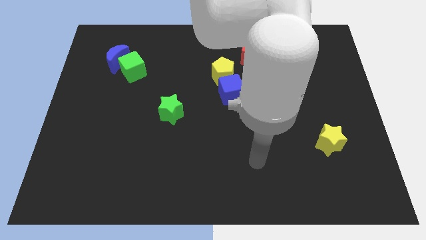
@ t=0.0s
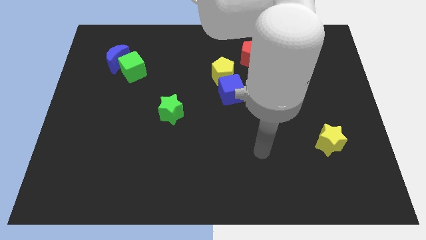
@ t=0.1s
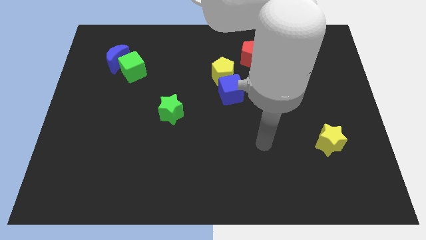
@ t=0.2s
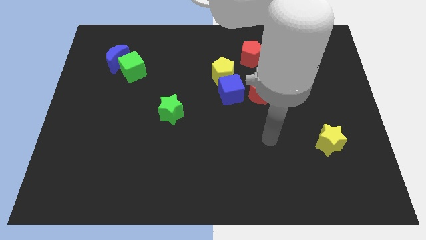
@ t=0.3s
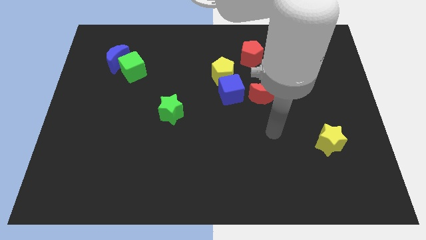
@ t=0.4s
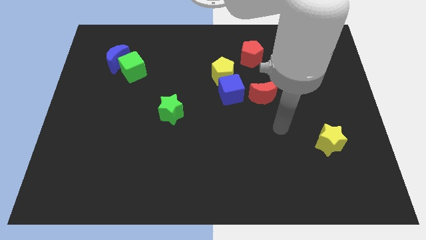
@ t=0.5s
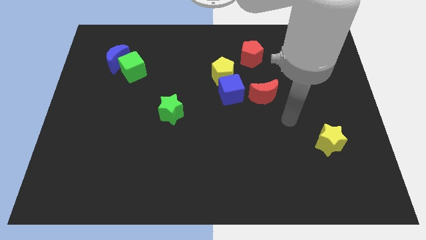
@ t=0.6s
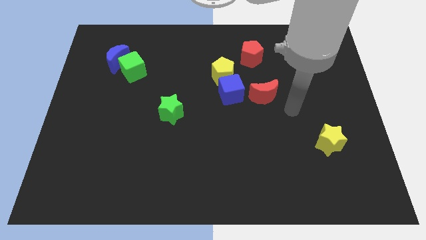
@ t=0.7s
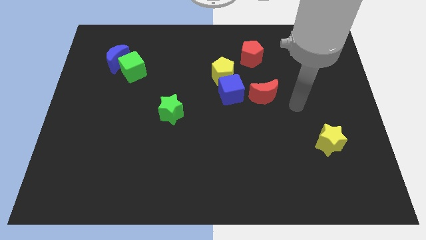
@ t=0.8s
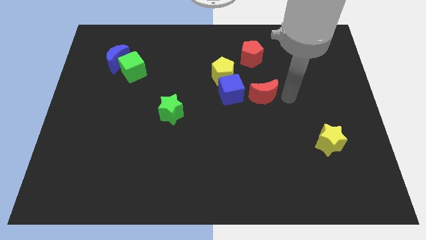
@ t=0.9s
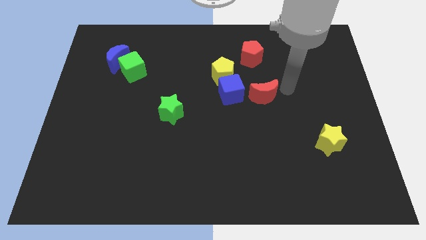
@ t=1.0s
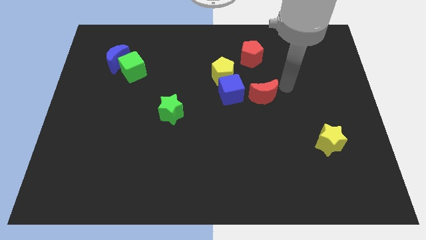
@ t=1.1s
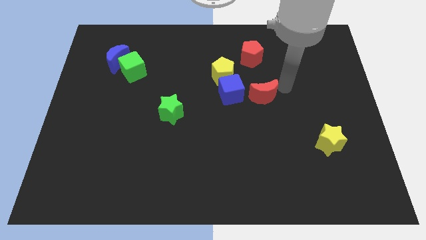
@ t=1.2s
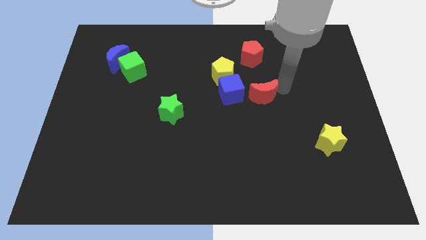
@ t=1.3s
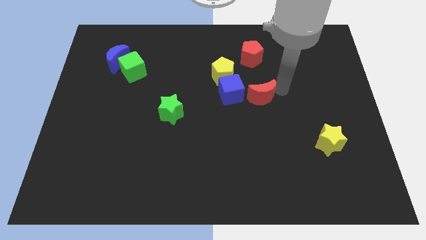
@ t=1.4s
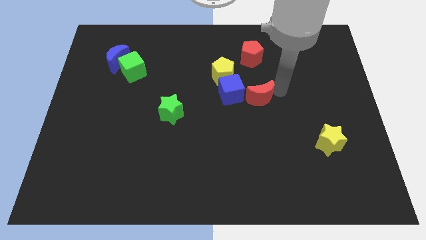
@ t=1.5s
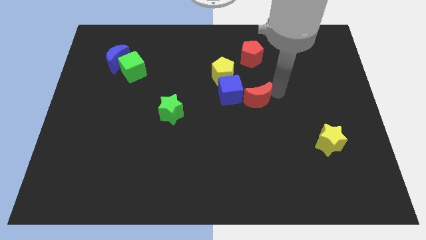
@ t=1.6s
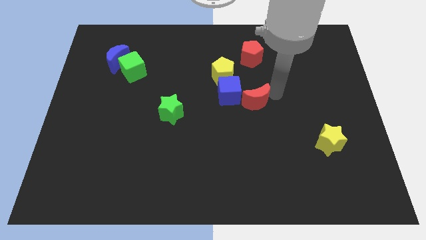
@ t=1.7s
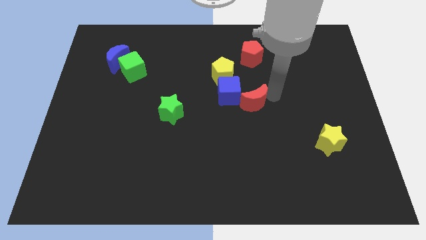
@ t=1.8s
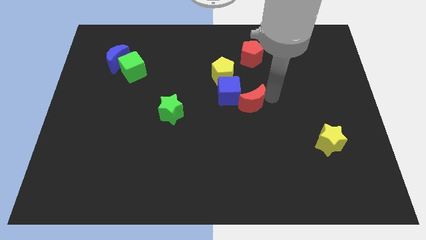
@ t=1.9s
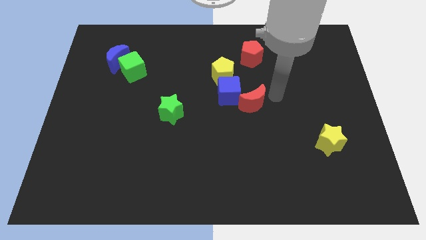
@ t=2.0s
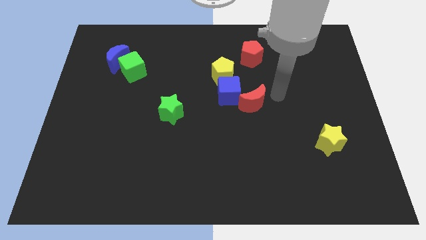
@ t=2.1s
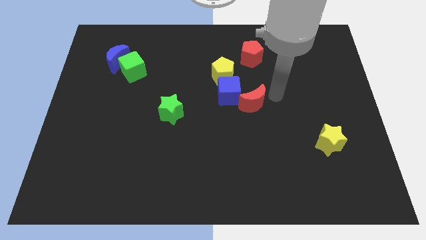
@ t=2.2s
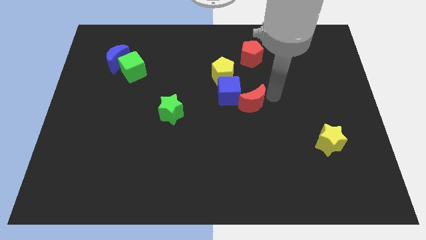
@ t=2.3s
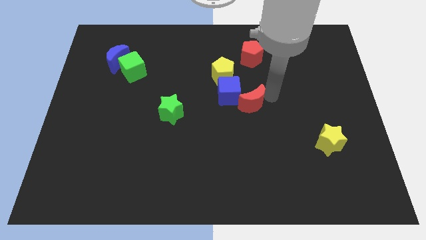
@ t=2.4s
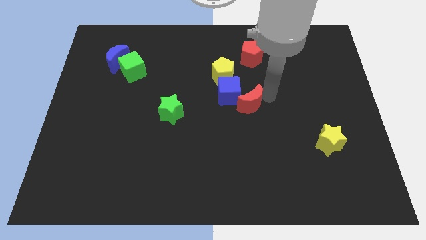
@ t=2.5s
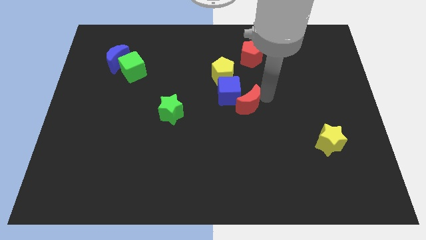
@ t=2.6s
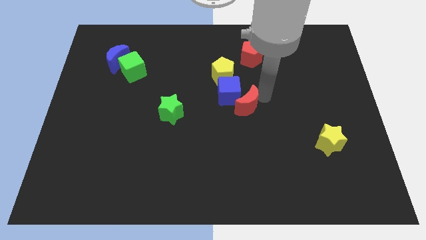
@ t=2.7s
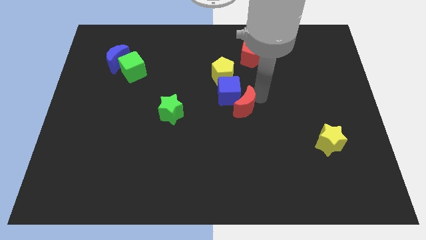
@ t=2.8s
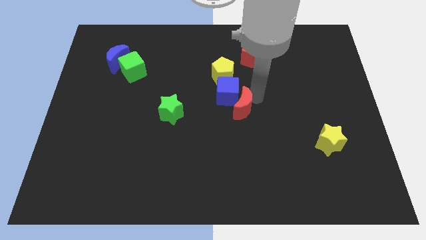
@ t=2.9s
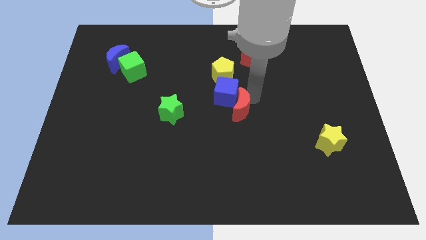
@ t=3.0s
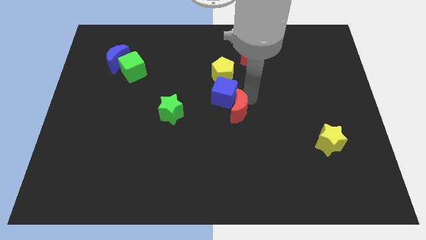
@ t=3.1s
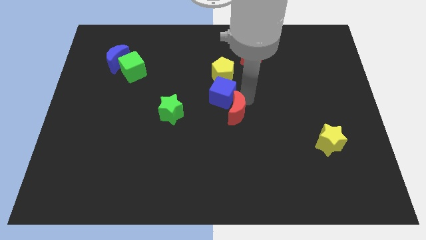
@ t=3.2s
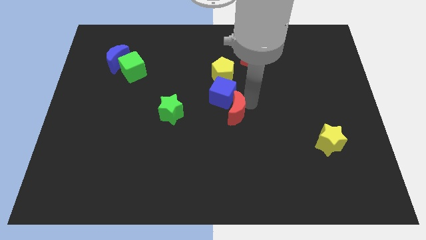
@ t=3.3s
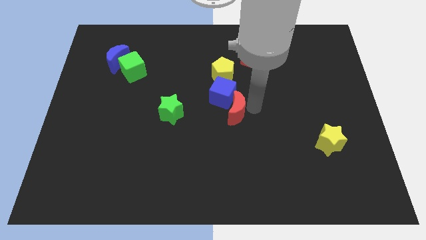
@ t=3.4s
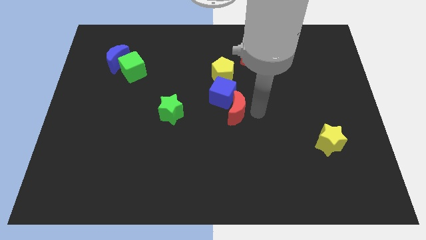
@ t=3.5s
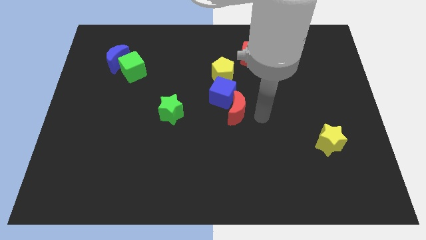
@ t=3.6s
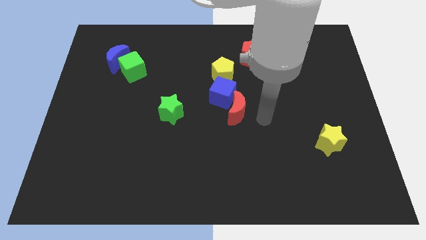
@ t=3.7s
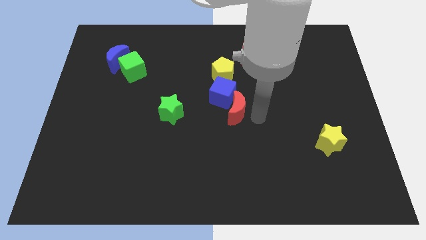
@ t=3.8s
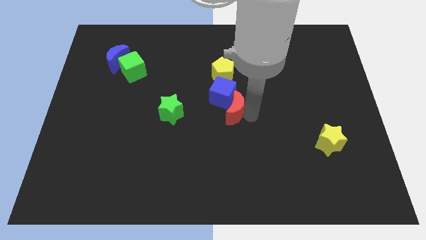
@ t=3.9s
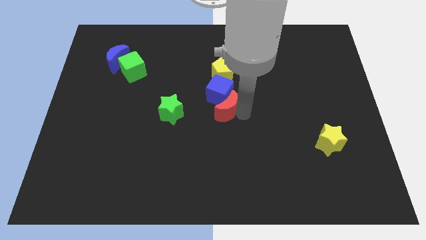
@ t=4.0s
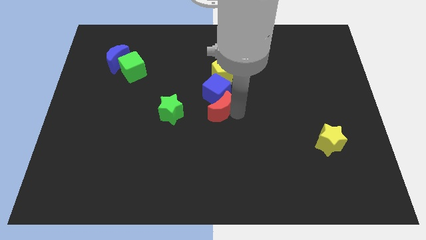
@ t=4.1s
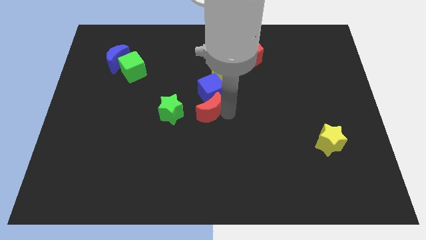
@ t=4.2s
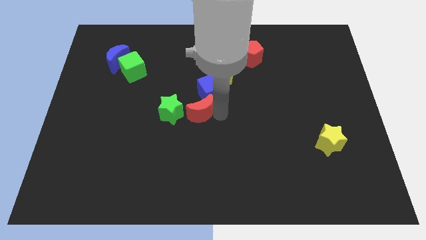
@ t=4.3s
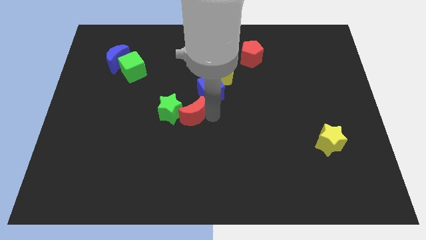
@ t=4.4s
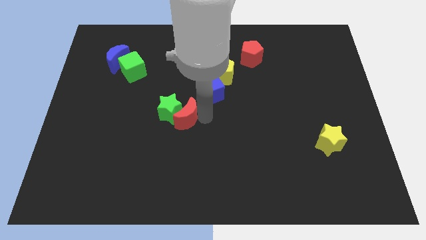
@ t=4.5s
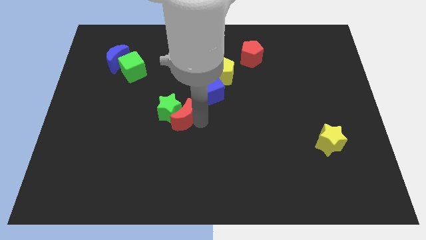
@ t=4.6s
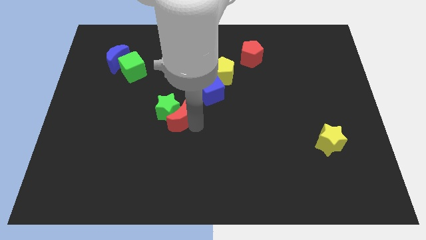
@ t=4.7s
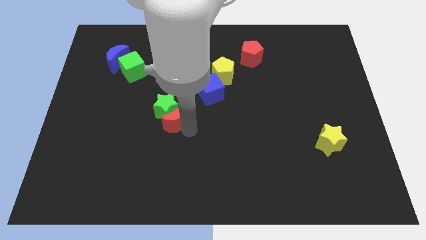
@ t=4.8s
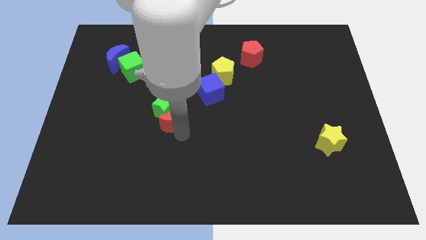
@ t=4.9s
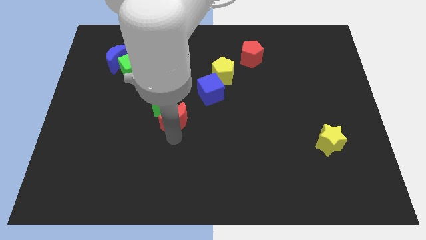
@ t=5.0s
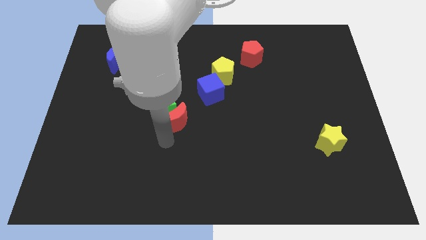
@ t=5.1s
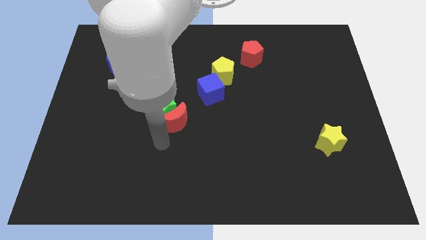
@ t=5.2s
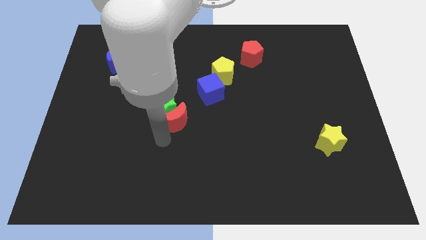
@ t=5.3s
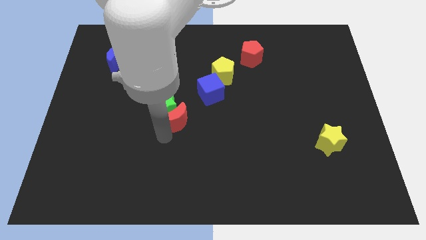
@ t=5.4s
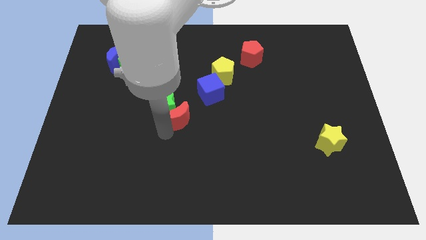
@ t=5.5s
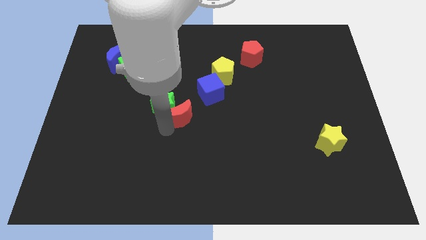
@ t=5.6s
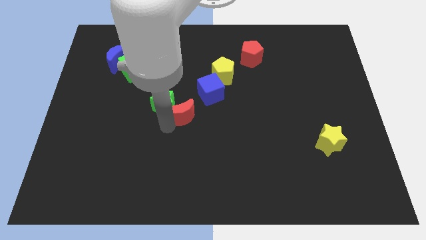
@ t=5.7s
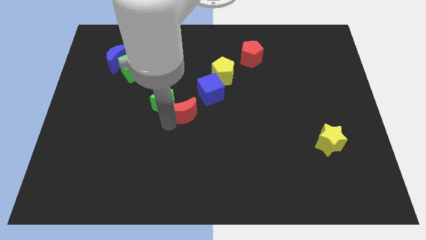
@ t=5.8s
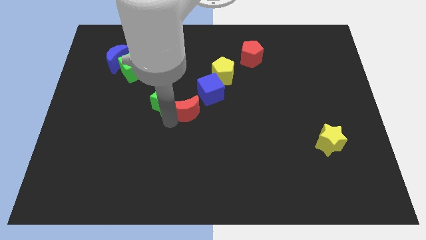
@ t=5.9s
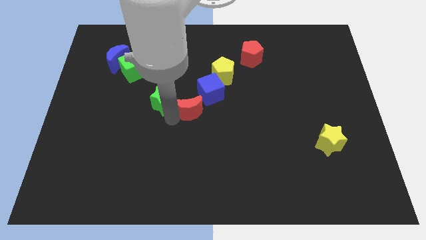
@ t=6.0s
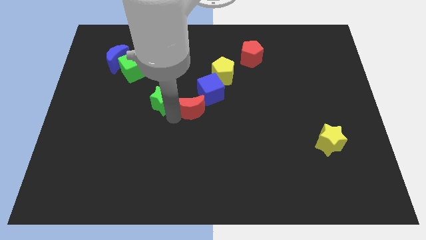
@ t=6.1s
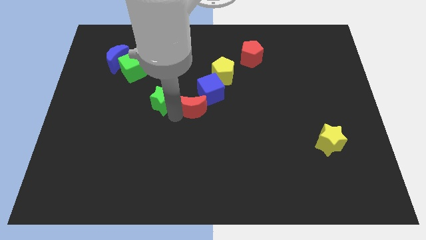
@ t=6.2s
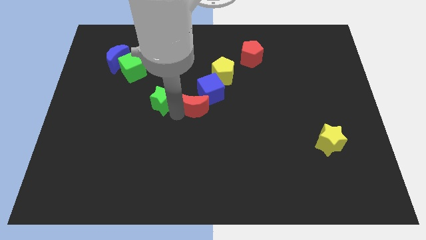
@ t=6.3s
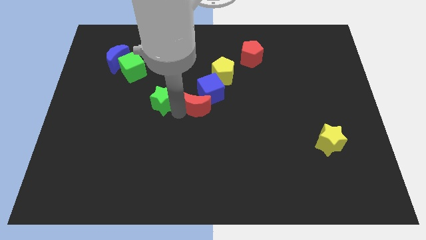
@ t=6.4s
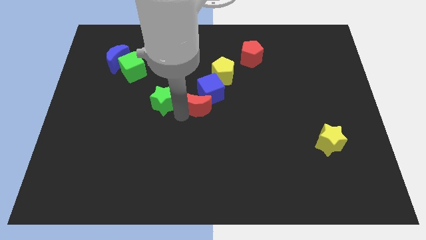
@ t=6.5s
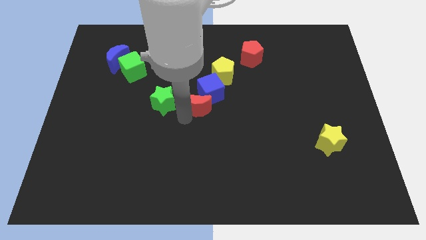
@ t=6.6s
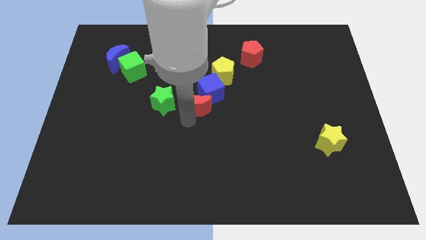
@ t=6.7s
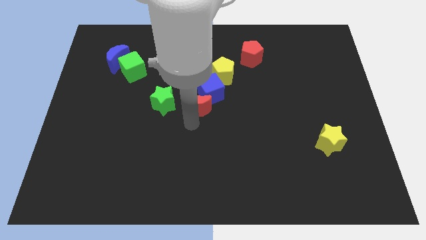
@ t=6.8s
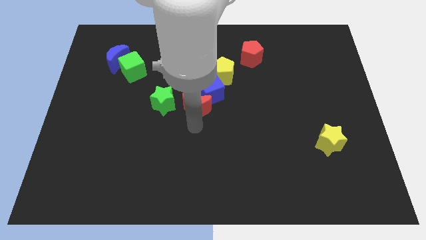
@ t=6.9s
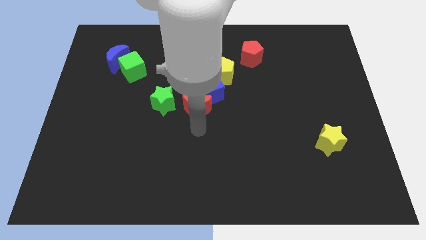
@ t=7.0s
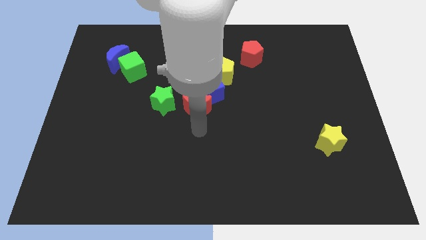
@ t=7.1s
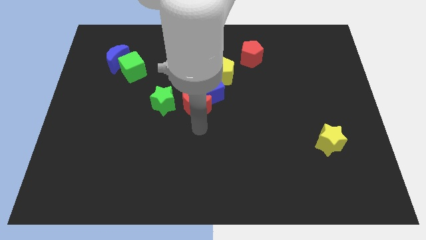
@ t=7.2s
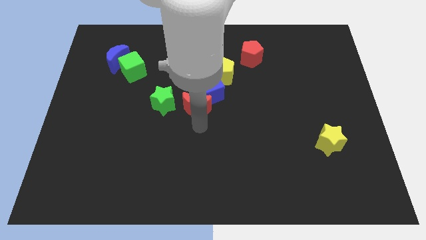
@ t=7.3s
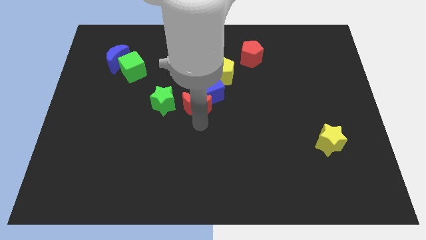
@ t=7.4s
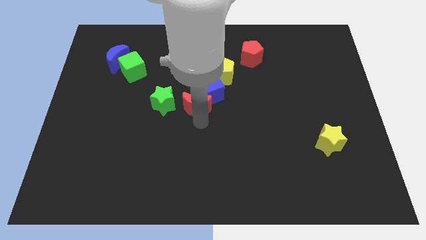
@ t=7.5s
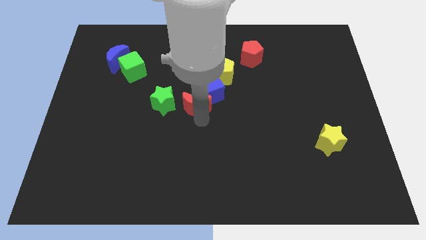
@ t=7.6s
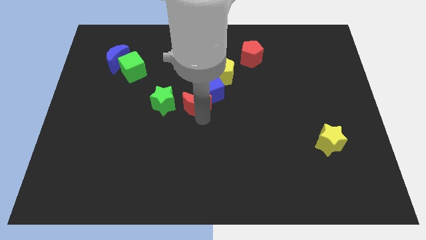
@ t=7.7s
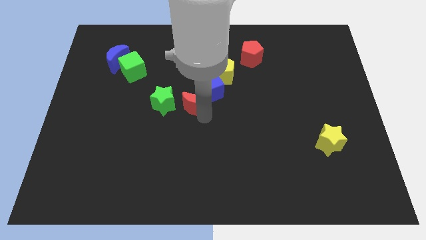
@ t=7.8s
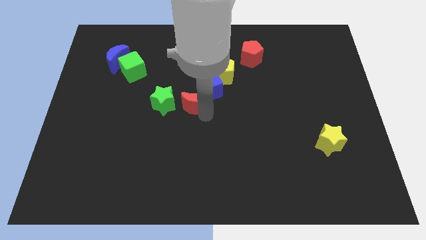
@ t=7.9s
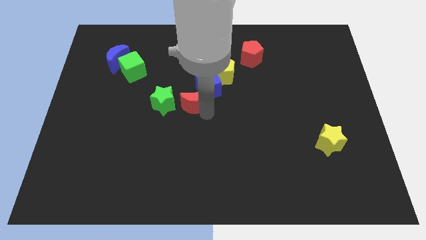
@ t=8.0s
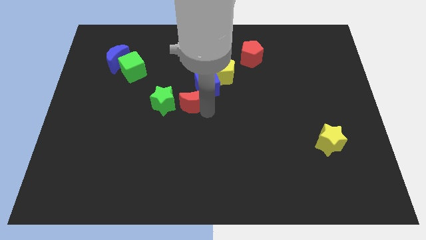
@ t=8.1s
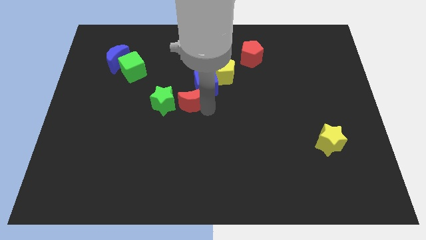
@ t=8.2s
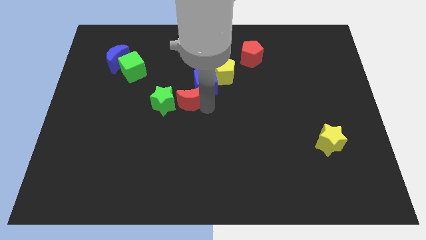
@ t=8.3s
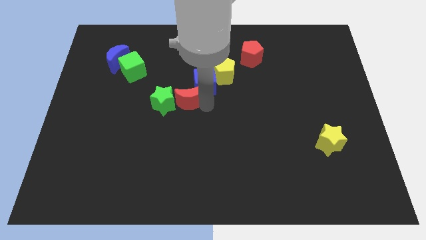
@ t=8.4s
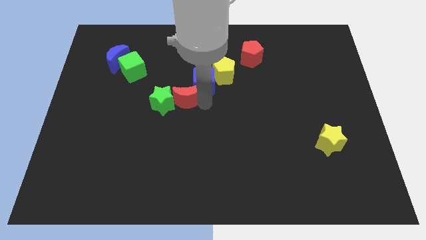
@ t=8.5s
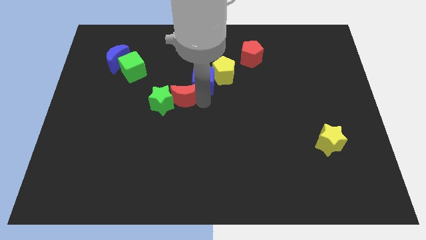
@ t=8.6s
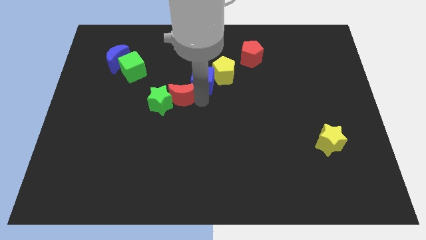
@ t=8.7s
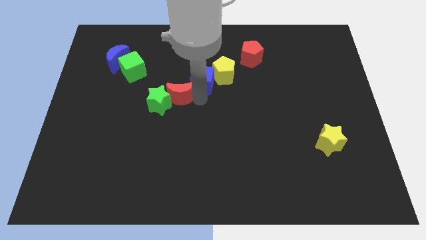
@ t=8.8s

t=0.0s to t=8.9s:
move the red moon to the left
